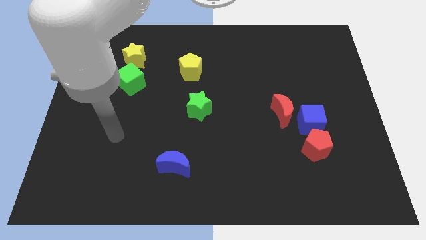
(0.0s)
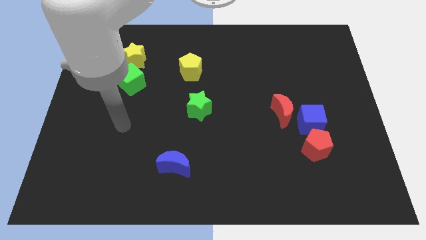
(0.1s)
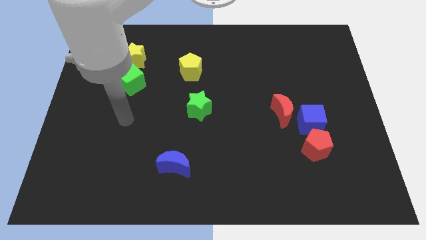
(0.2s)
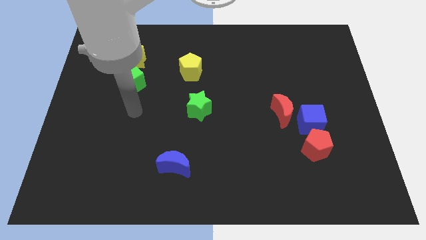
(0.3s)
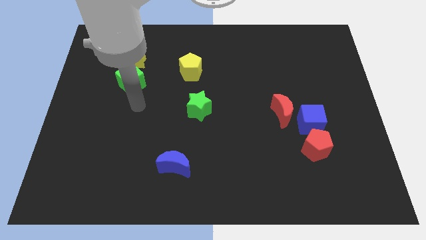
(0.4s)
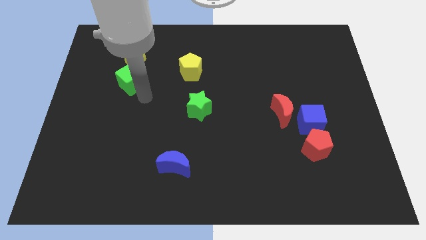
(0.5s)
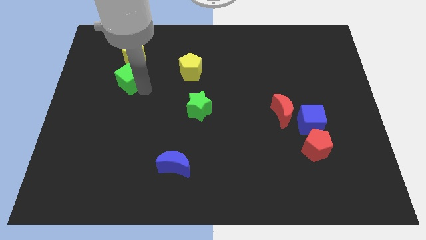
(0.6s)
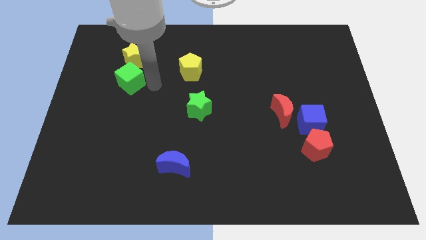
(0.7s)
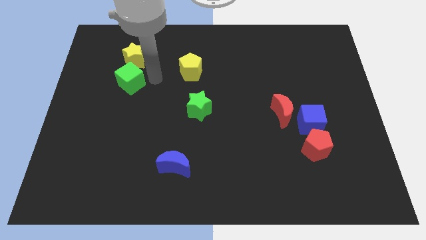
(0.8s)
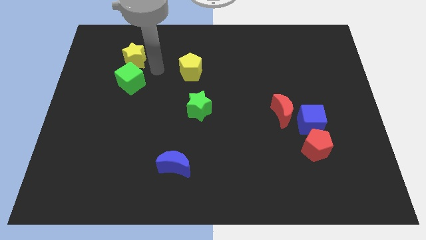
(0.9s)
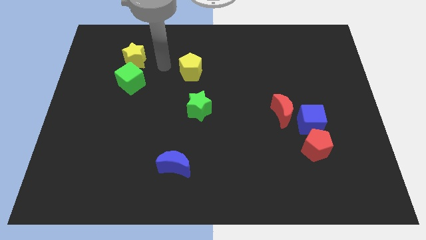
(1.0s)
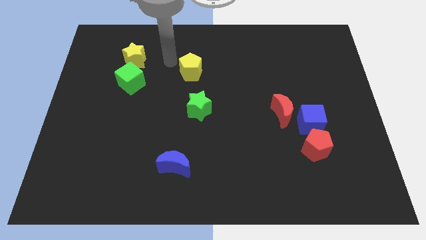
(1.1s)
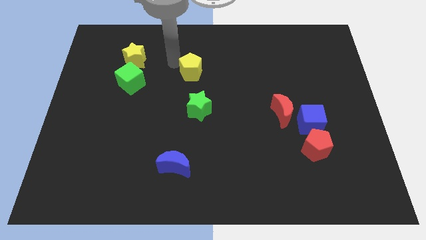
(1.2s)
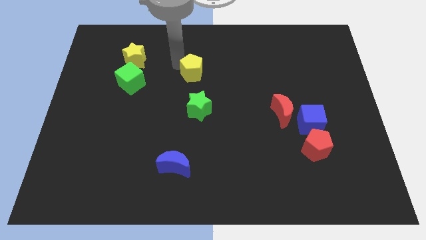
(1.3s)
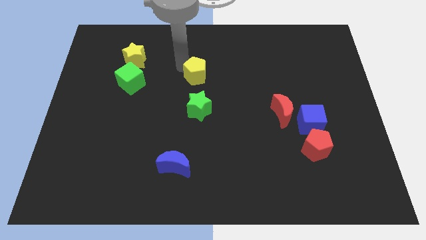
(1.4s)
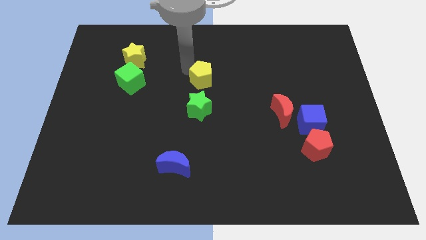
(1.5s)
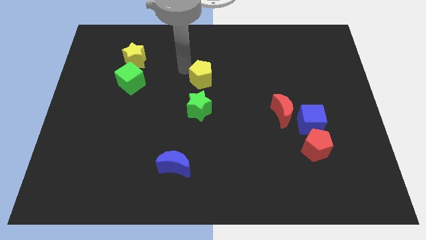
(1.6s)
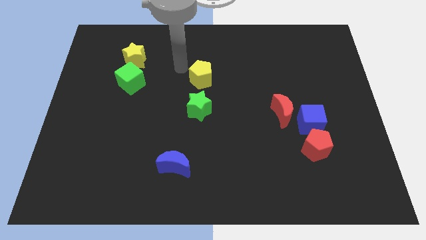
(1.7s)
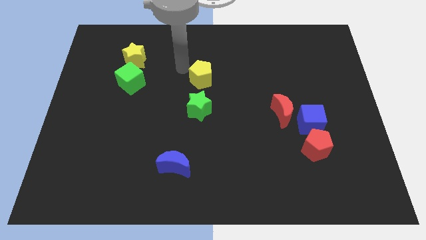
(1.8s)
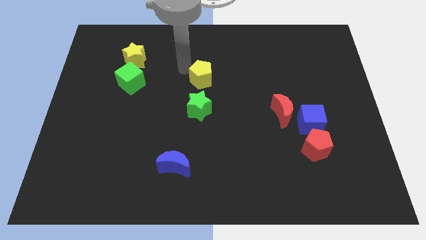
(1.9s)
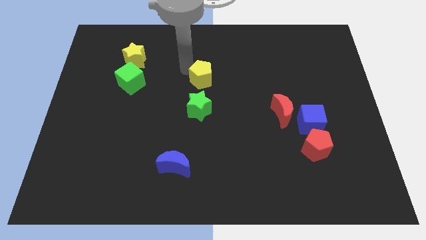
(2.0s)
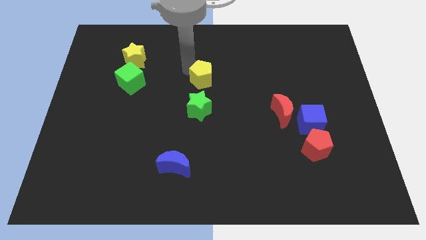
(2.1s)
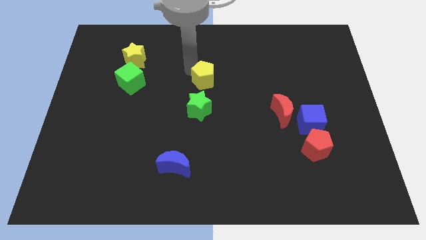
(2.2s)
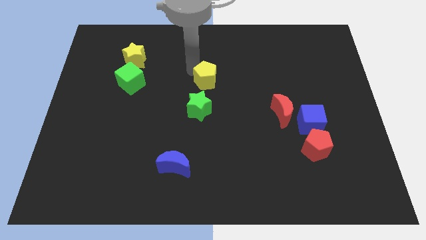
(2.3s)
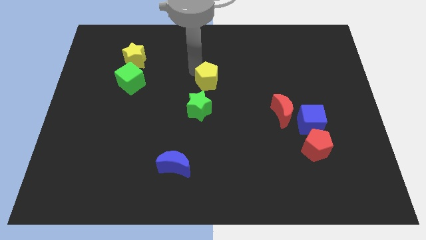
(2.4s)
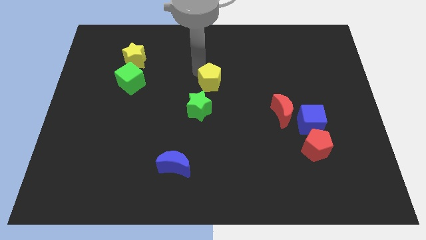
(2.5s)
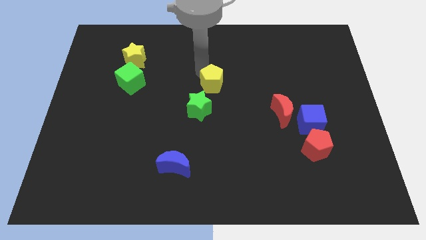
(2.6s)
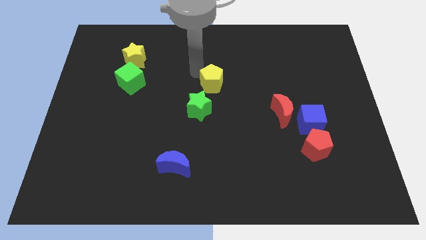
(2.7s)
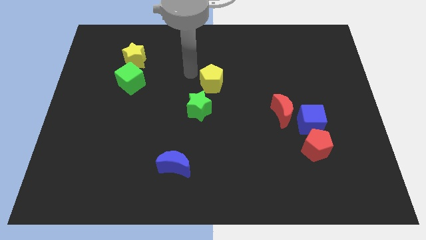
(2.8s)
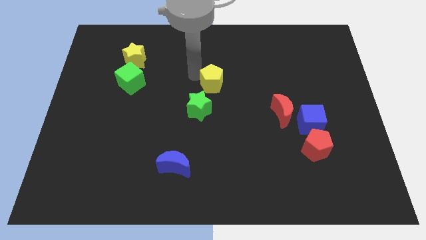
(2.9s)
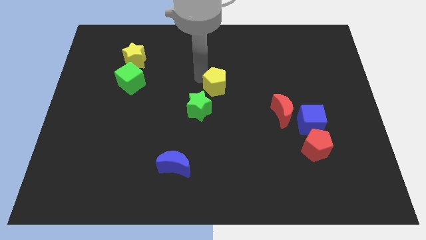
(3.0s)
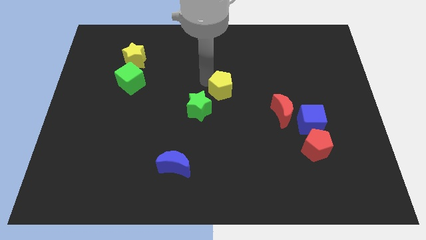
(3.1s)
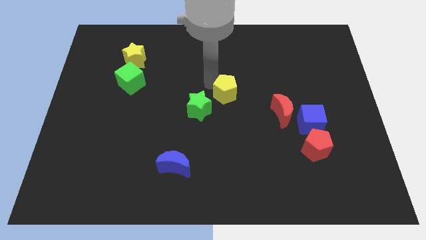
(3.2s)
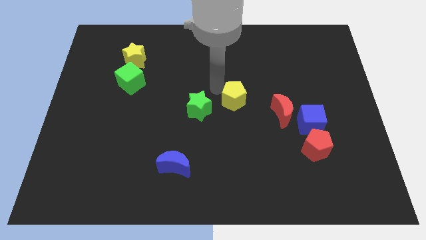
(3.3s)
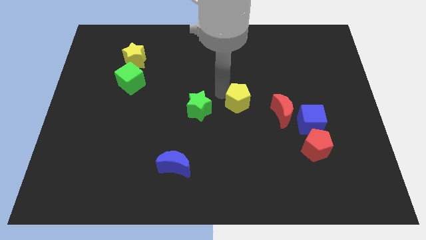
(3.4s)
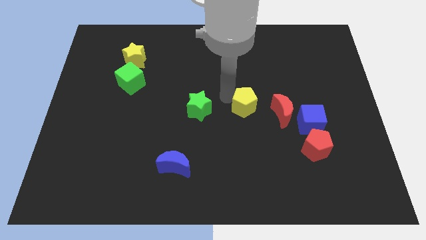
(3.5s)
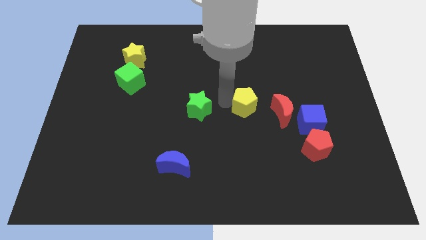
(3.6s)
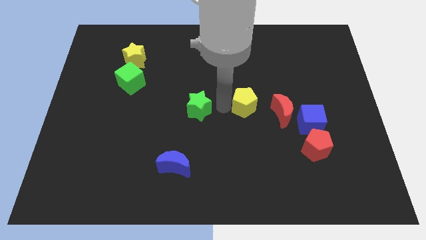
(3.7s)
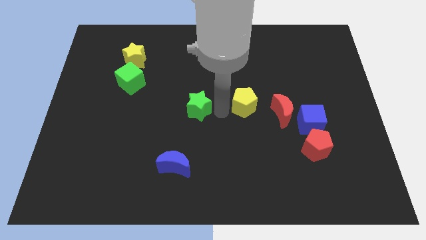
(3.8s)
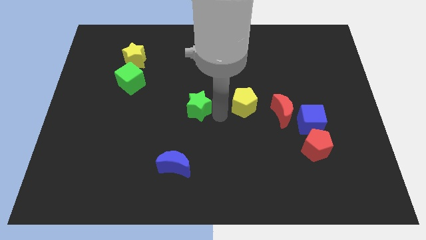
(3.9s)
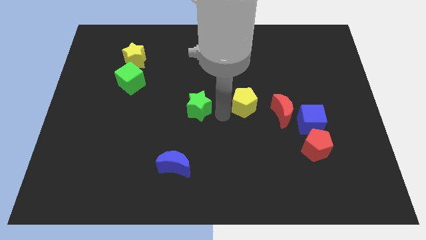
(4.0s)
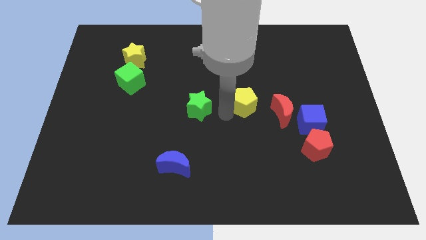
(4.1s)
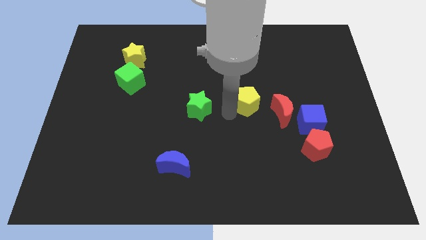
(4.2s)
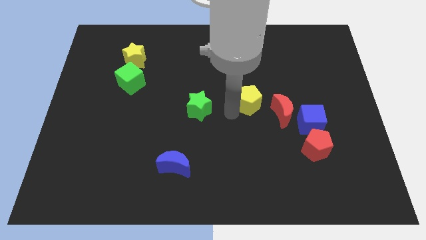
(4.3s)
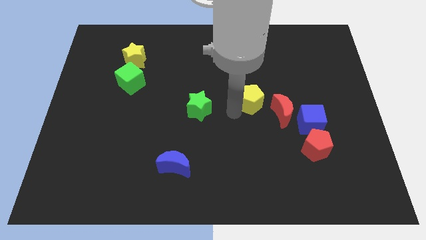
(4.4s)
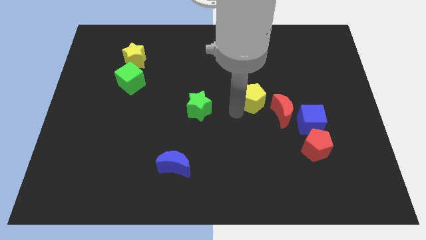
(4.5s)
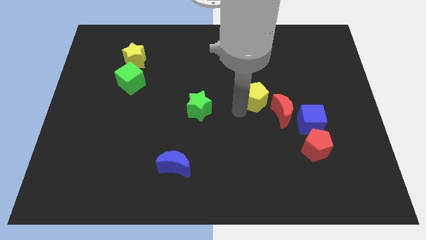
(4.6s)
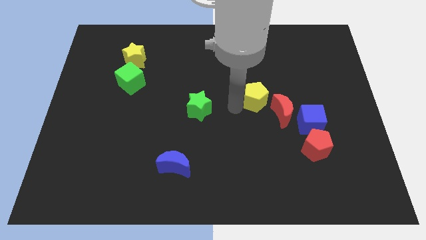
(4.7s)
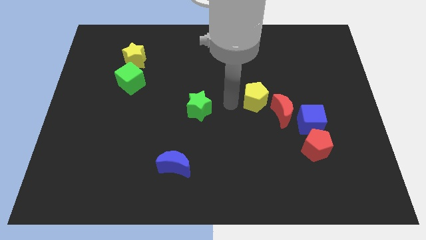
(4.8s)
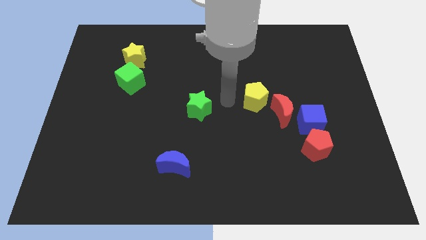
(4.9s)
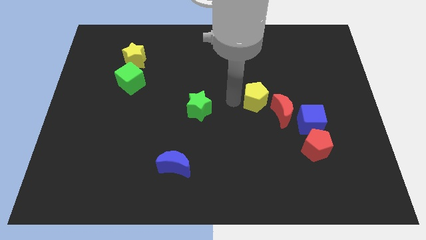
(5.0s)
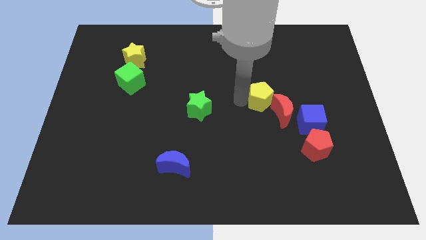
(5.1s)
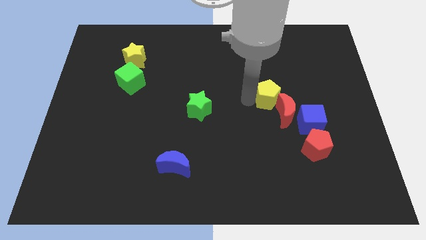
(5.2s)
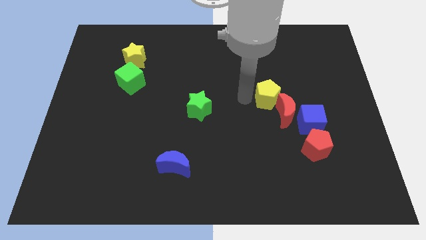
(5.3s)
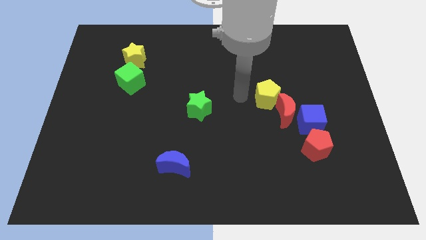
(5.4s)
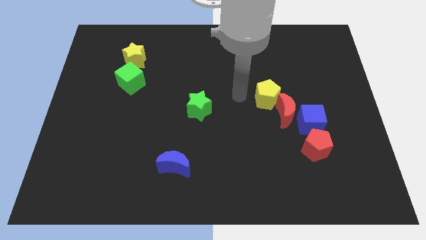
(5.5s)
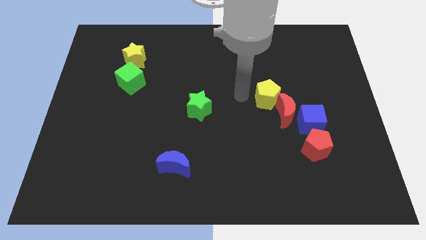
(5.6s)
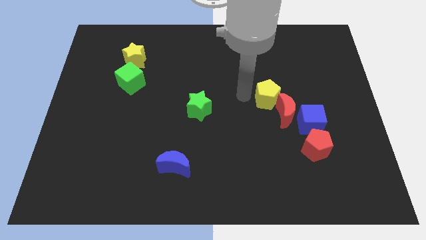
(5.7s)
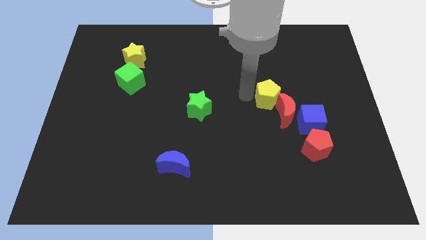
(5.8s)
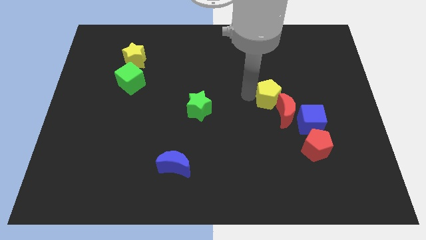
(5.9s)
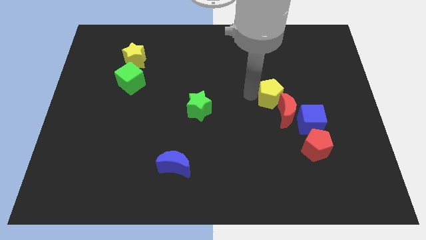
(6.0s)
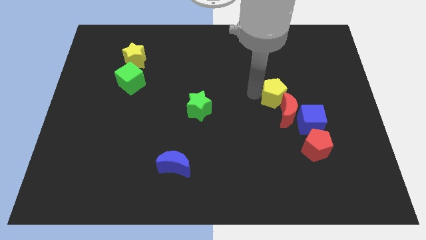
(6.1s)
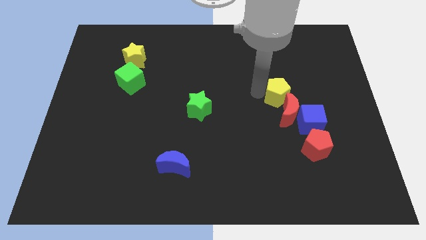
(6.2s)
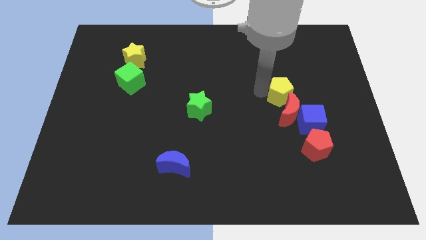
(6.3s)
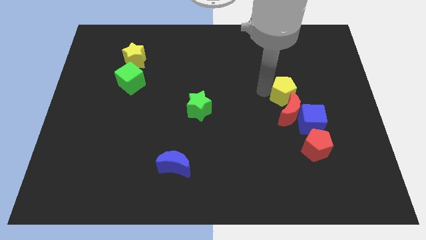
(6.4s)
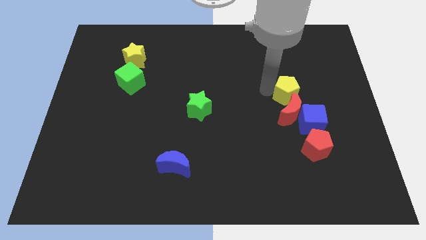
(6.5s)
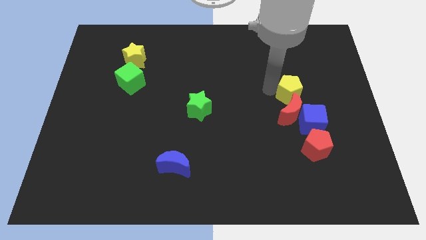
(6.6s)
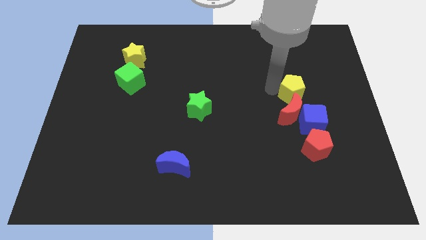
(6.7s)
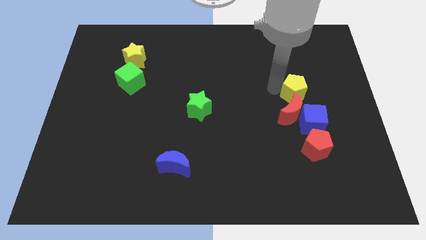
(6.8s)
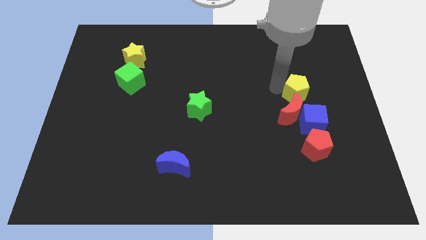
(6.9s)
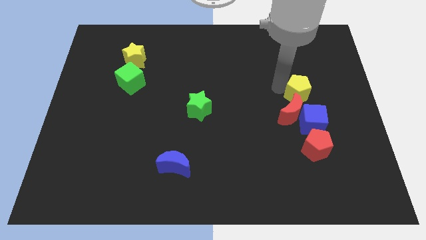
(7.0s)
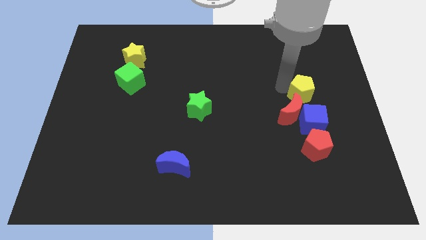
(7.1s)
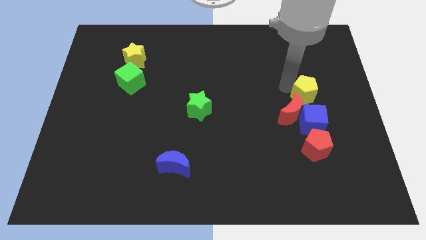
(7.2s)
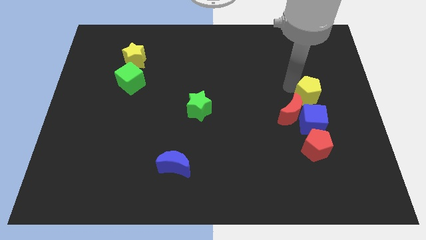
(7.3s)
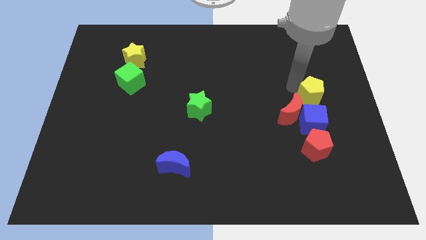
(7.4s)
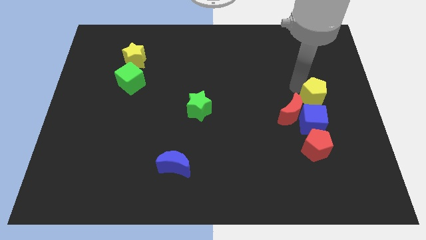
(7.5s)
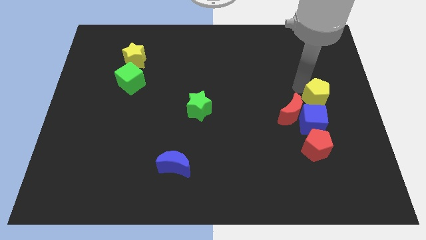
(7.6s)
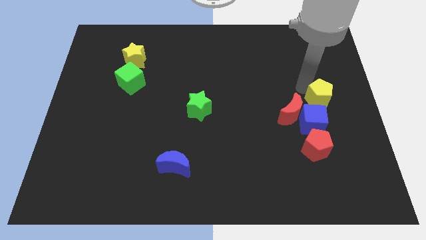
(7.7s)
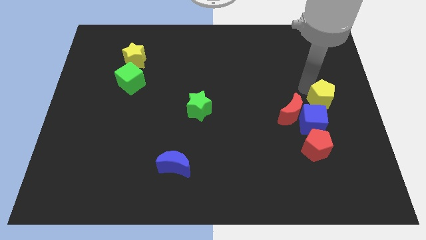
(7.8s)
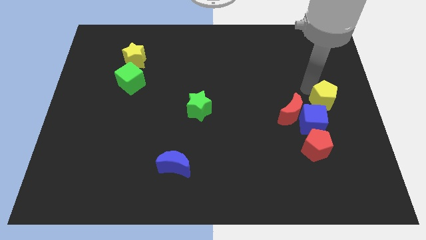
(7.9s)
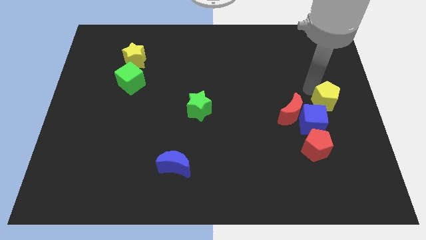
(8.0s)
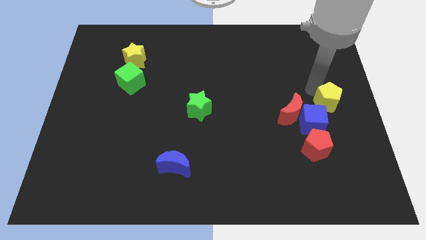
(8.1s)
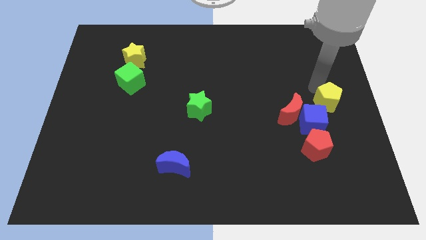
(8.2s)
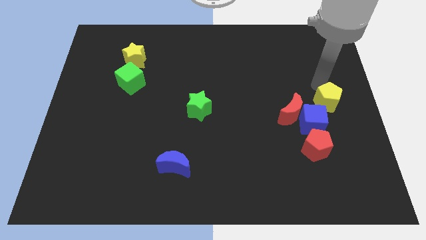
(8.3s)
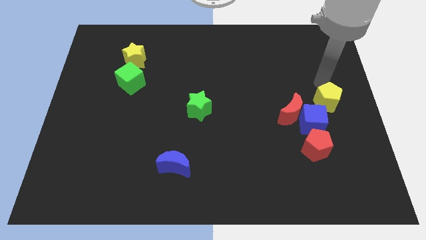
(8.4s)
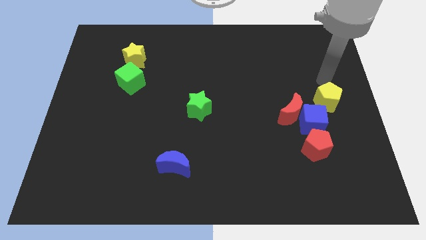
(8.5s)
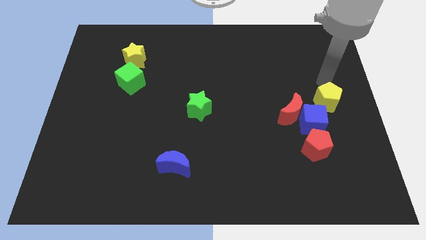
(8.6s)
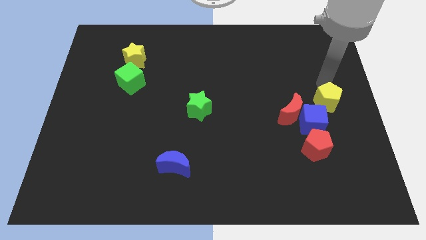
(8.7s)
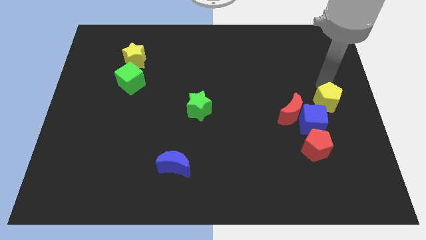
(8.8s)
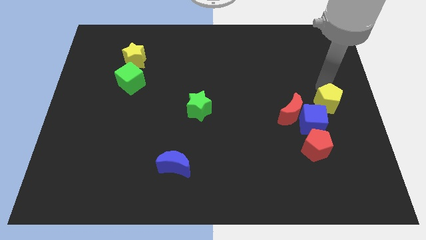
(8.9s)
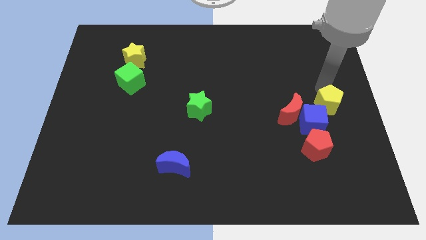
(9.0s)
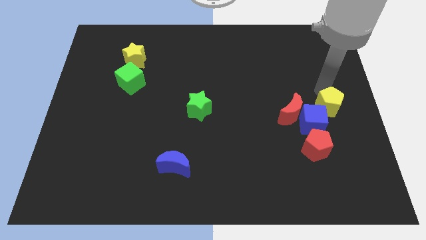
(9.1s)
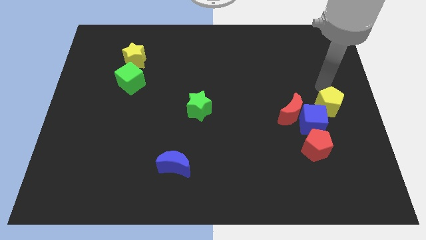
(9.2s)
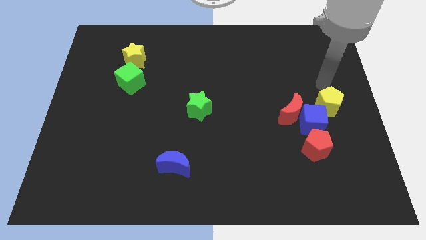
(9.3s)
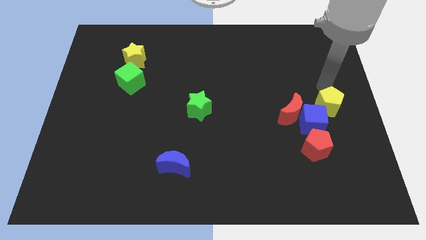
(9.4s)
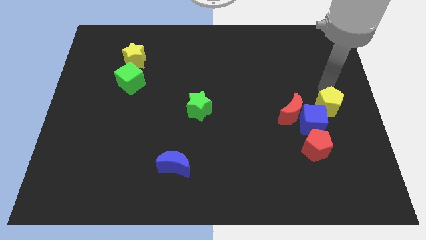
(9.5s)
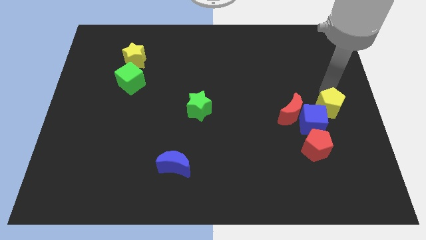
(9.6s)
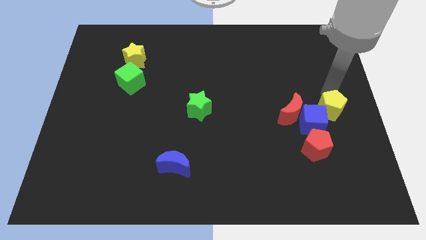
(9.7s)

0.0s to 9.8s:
move the yellow pentagon diagonally up and to the right of the red pentagon
